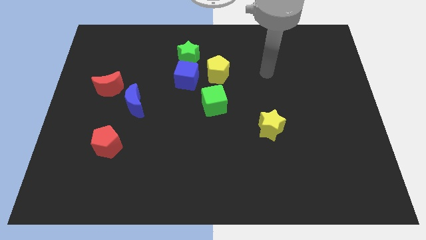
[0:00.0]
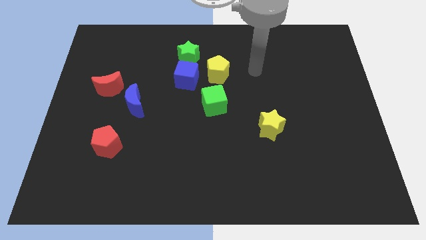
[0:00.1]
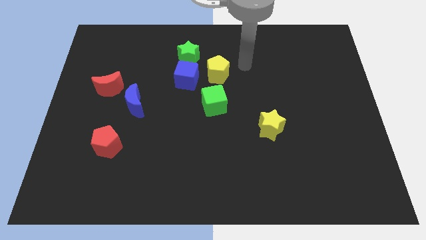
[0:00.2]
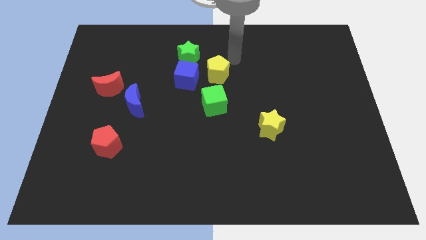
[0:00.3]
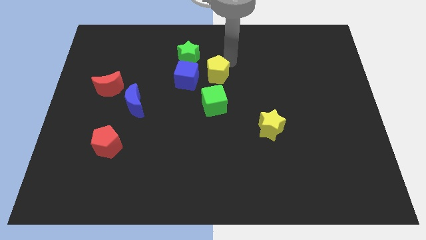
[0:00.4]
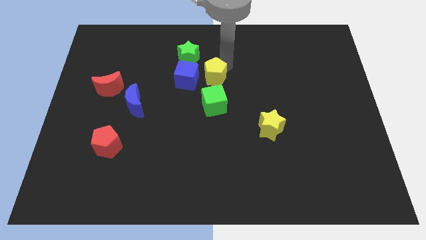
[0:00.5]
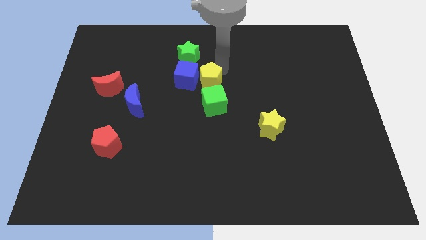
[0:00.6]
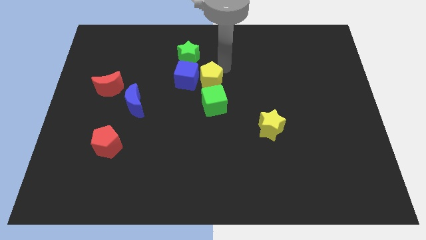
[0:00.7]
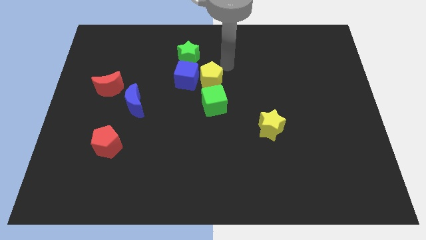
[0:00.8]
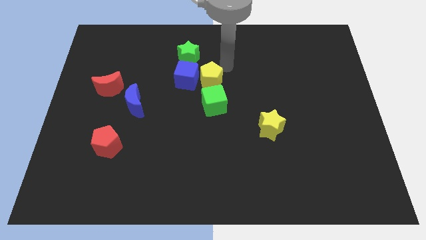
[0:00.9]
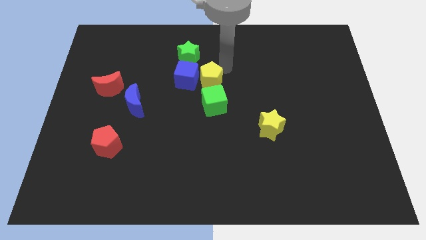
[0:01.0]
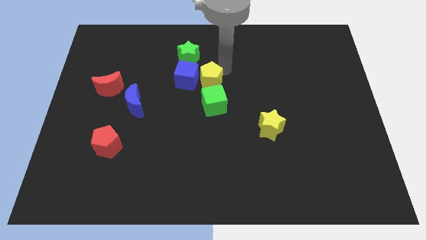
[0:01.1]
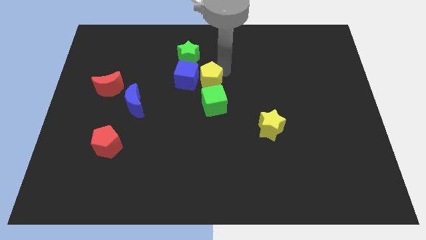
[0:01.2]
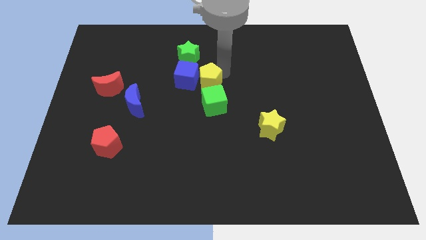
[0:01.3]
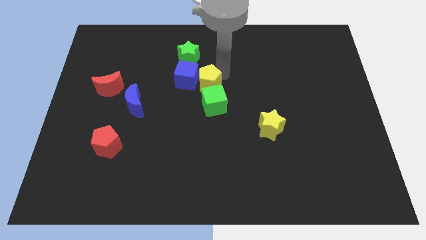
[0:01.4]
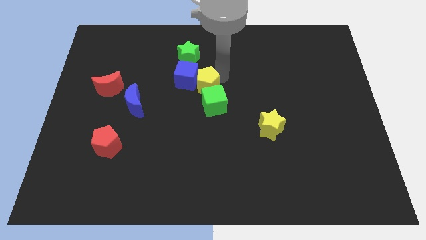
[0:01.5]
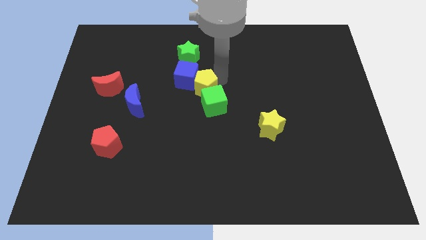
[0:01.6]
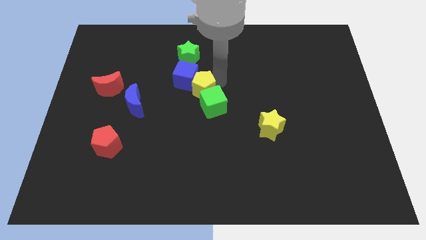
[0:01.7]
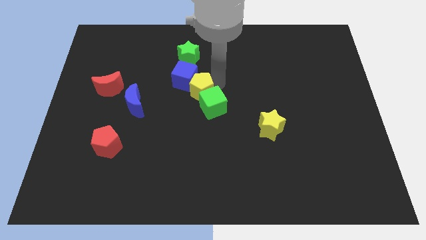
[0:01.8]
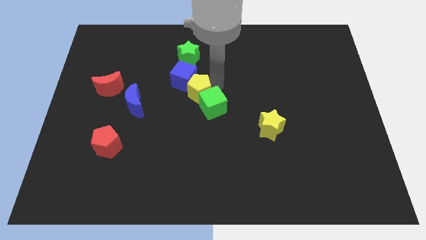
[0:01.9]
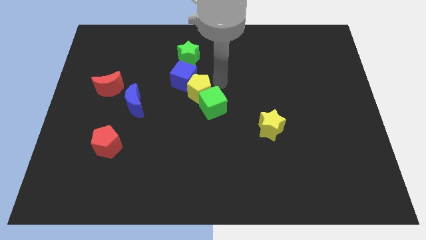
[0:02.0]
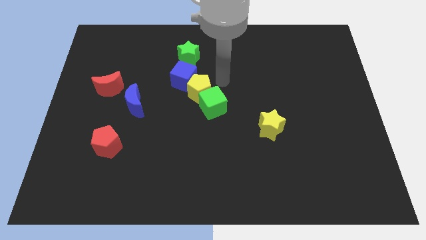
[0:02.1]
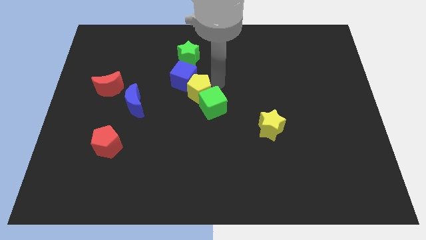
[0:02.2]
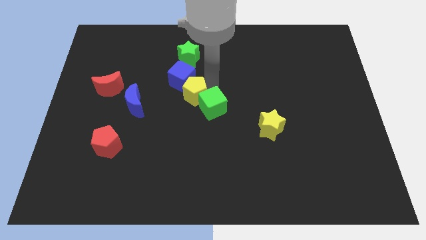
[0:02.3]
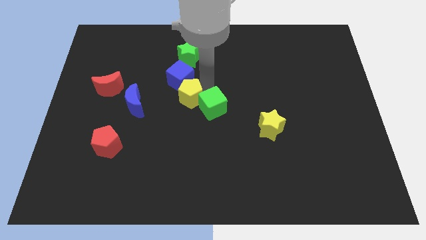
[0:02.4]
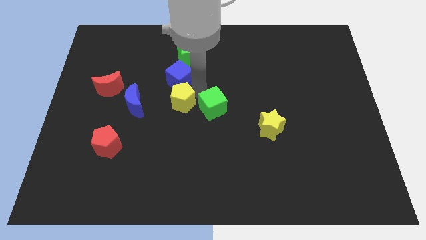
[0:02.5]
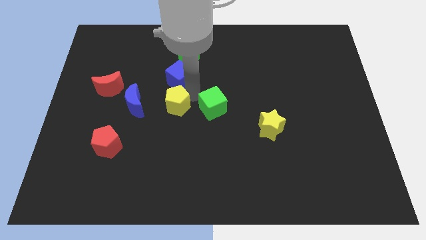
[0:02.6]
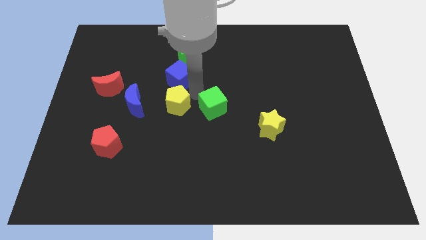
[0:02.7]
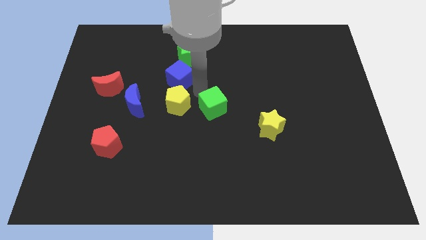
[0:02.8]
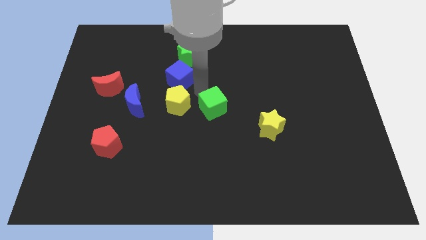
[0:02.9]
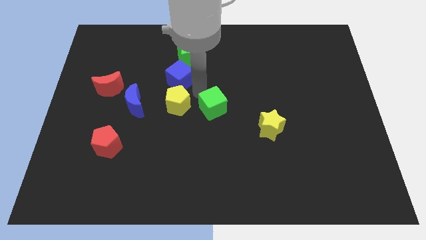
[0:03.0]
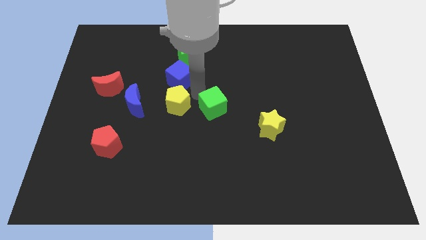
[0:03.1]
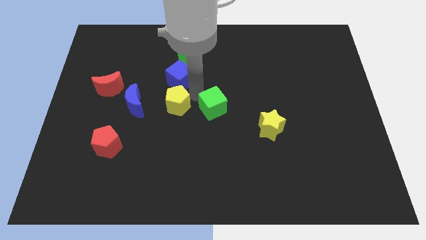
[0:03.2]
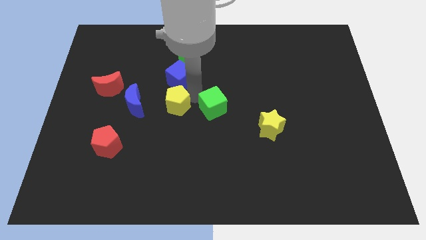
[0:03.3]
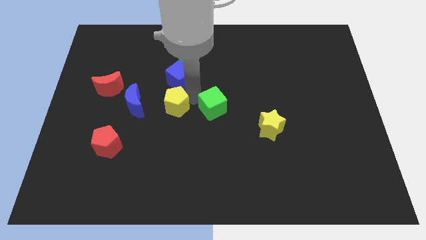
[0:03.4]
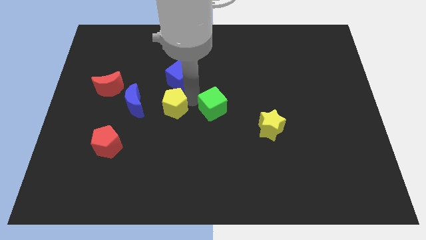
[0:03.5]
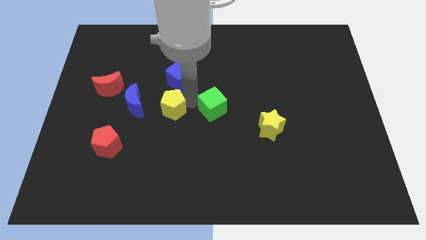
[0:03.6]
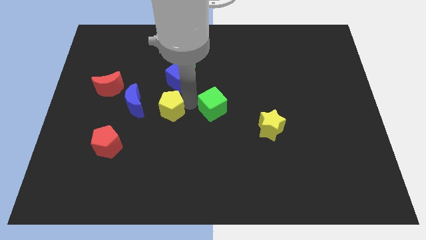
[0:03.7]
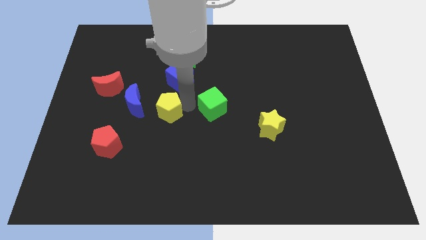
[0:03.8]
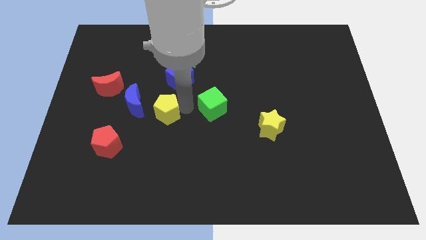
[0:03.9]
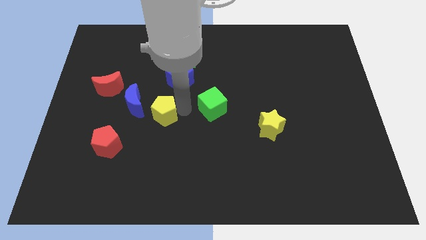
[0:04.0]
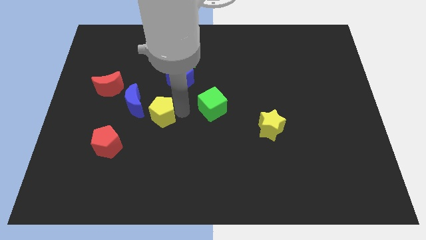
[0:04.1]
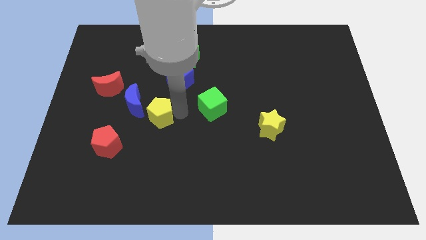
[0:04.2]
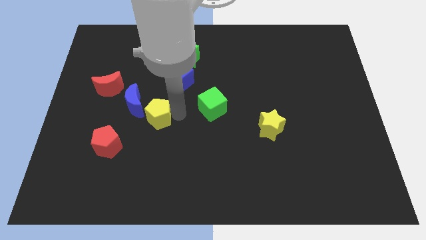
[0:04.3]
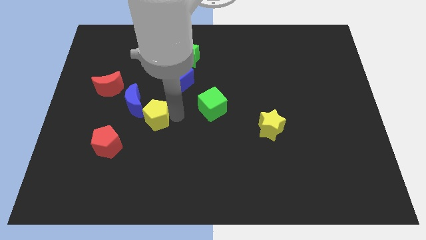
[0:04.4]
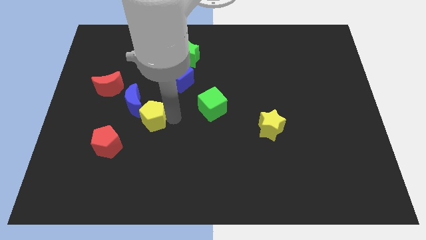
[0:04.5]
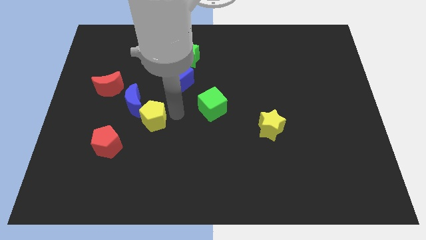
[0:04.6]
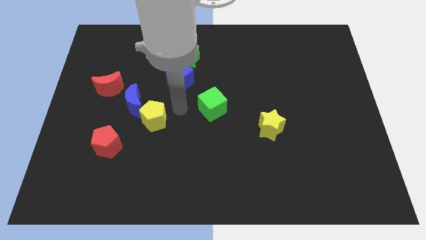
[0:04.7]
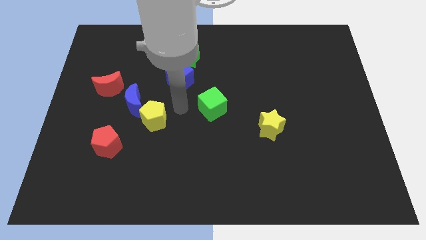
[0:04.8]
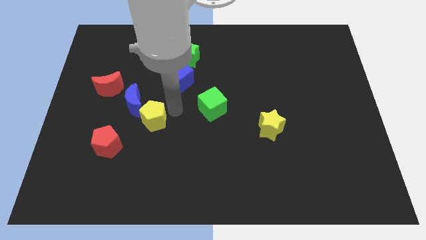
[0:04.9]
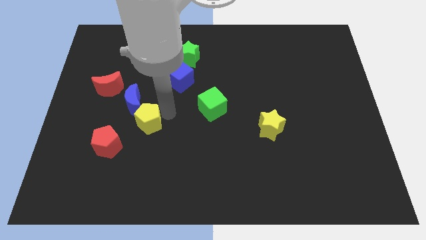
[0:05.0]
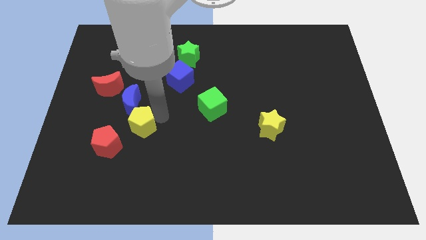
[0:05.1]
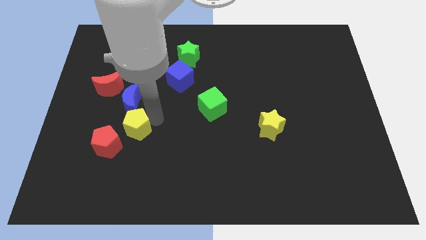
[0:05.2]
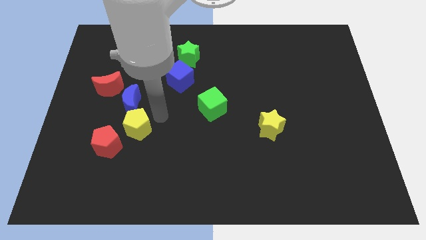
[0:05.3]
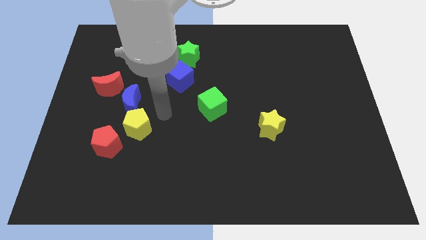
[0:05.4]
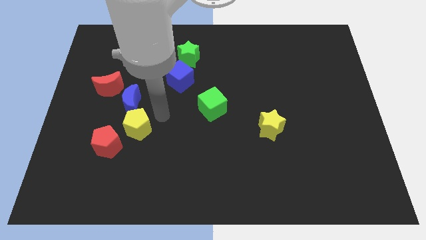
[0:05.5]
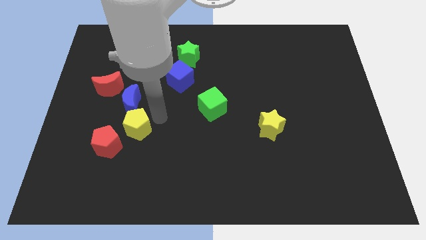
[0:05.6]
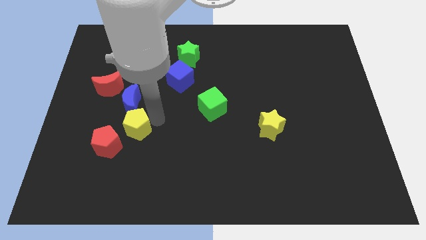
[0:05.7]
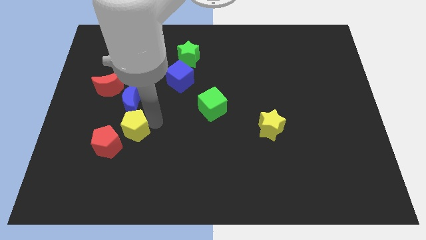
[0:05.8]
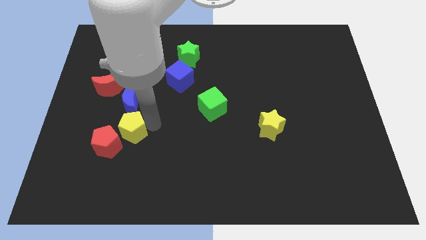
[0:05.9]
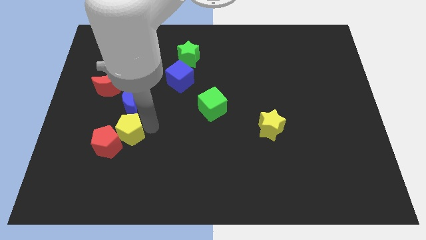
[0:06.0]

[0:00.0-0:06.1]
move the yellow pentagon close to the red pentagon

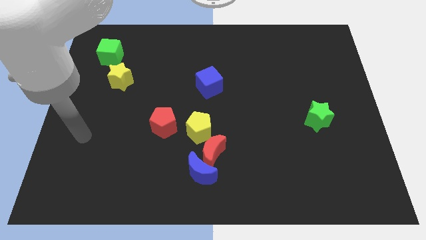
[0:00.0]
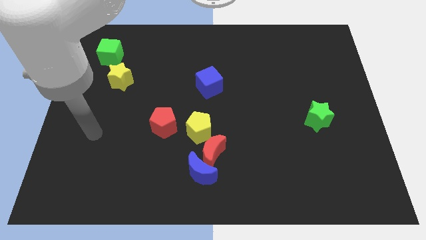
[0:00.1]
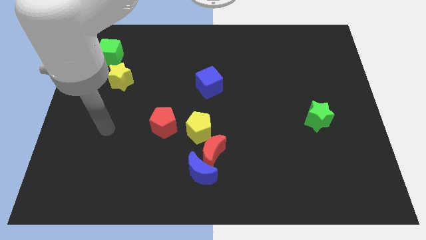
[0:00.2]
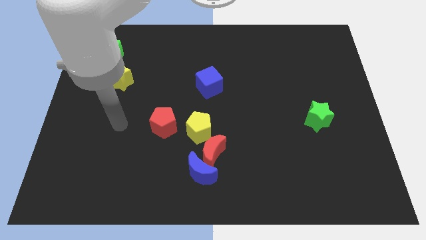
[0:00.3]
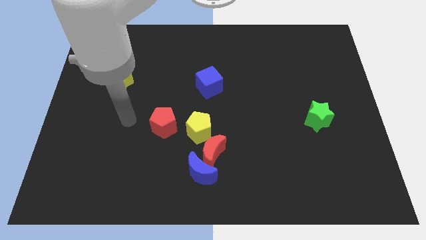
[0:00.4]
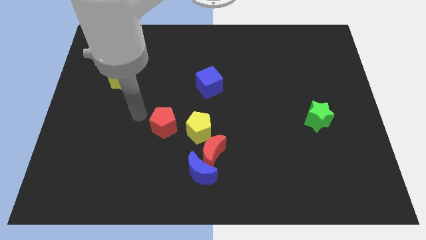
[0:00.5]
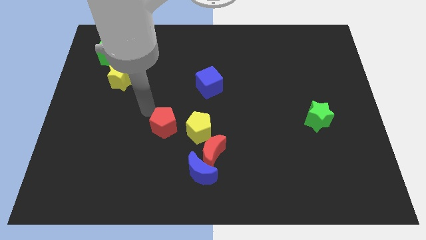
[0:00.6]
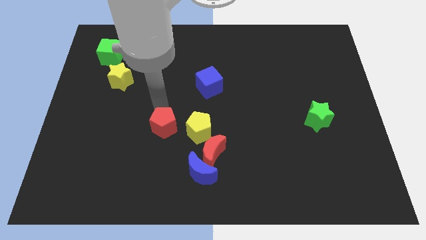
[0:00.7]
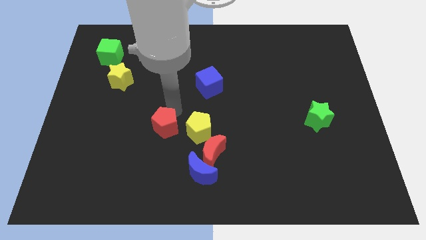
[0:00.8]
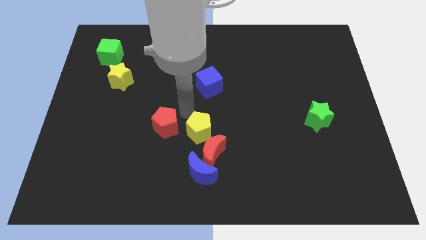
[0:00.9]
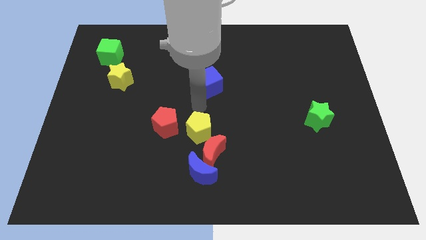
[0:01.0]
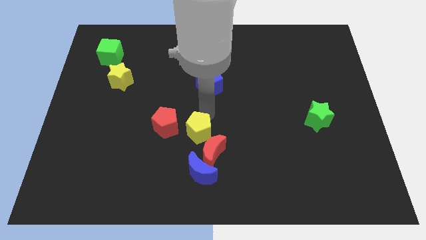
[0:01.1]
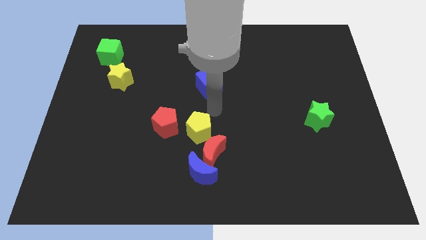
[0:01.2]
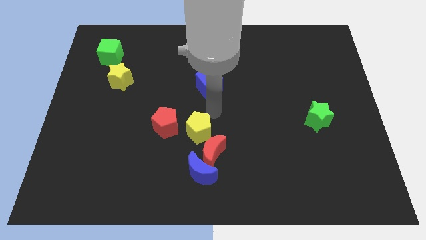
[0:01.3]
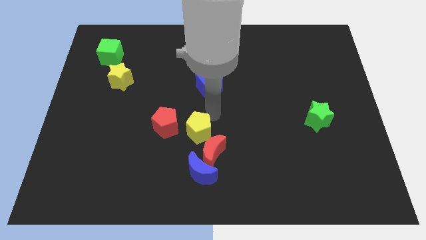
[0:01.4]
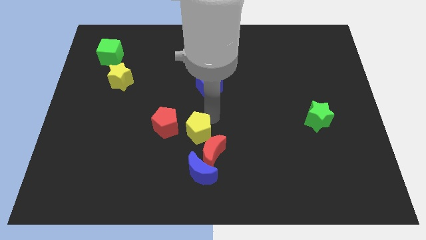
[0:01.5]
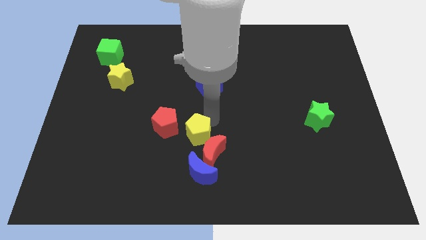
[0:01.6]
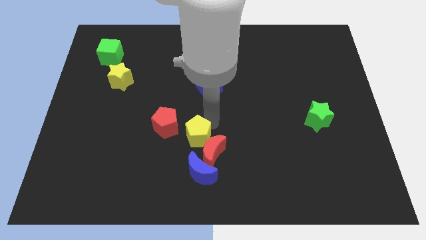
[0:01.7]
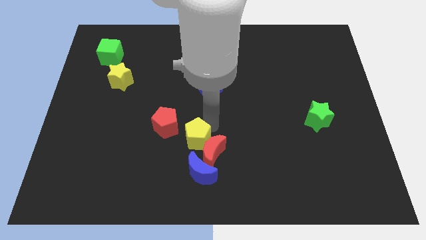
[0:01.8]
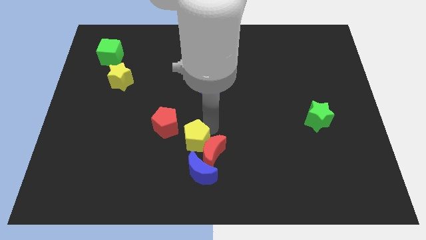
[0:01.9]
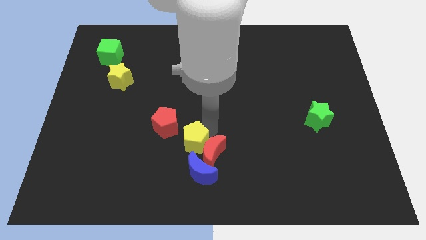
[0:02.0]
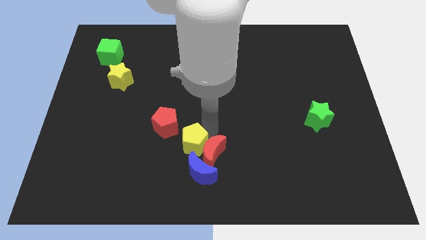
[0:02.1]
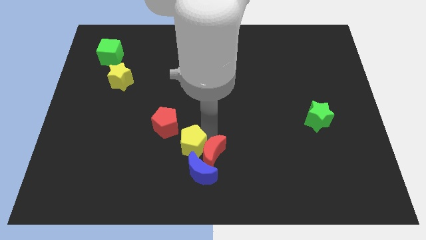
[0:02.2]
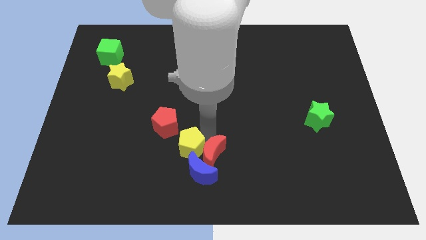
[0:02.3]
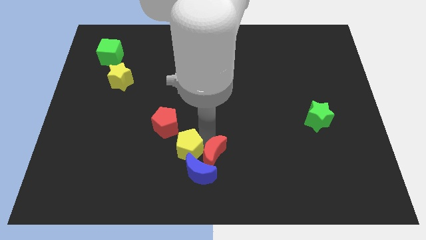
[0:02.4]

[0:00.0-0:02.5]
slide the yellow pentagon towards the blue moon
